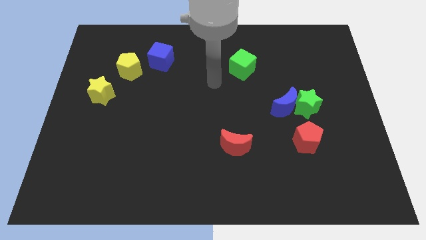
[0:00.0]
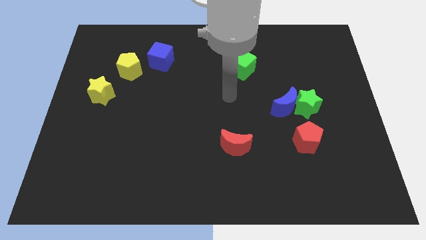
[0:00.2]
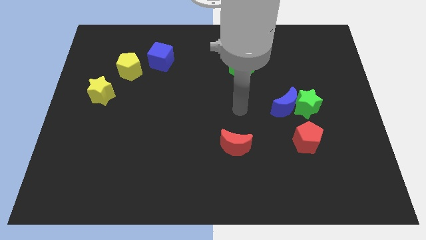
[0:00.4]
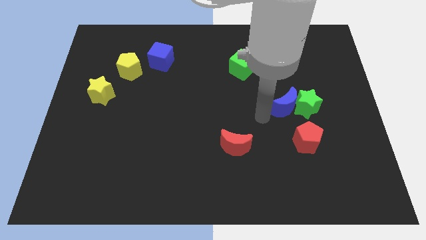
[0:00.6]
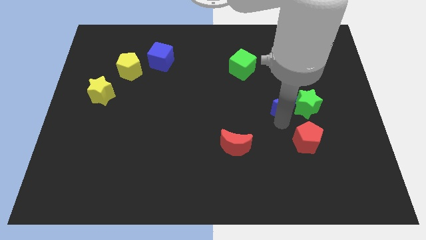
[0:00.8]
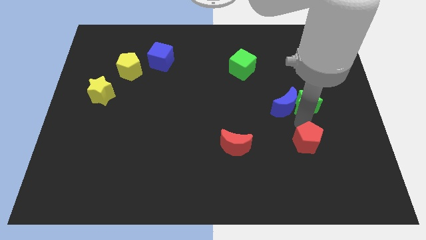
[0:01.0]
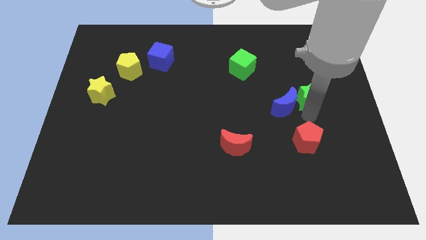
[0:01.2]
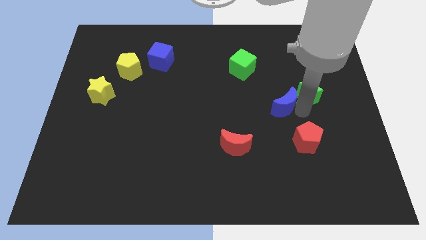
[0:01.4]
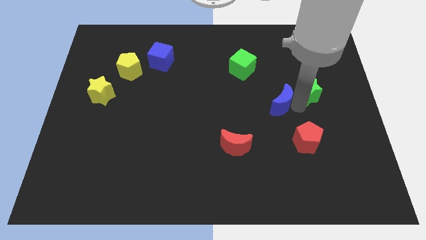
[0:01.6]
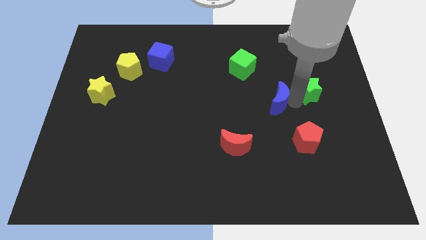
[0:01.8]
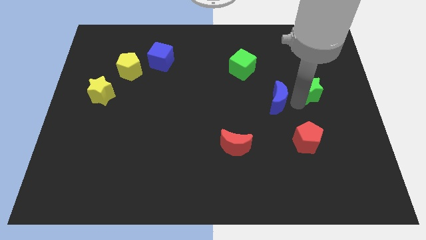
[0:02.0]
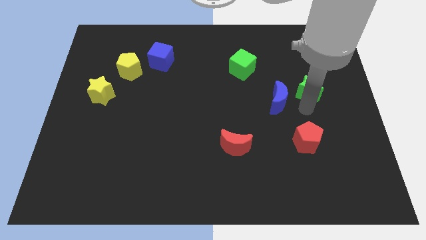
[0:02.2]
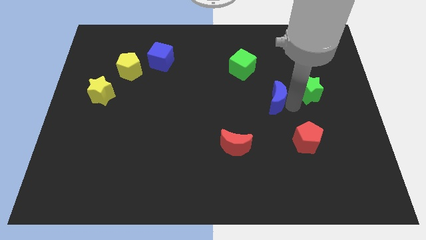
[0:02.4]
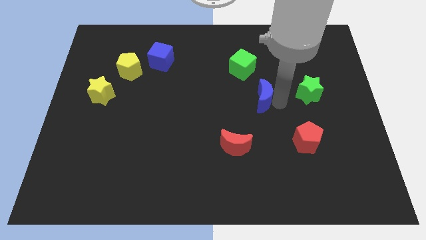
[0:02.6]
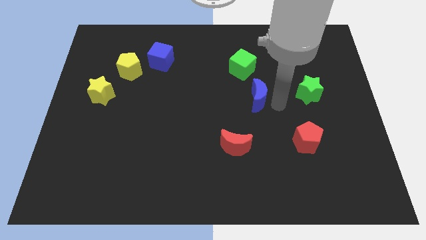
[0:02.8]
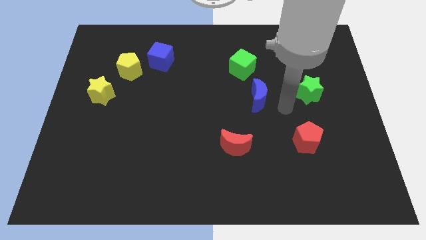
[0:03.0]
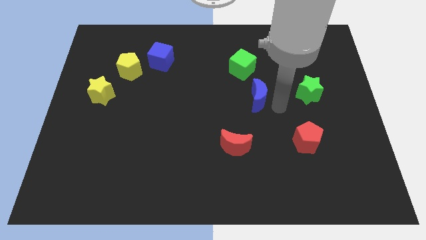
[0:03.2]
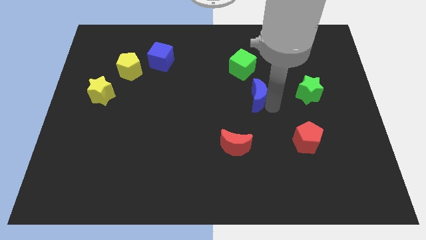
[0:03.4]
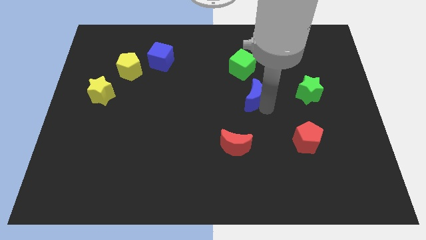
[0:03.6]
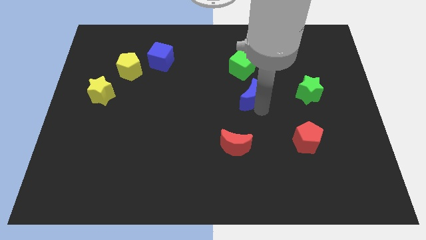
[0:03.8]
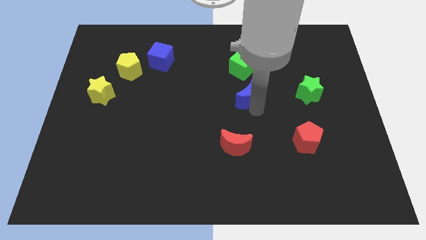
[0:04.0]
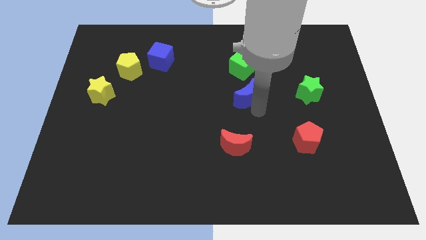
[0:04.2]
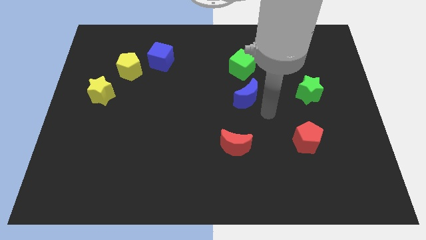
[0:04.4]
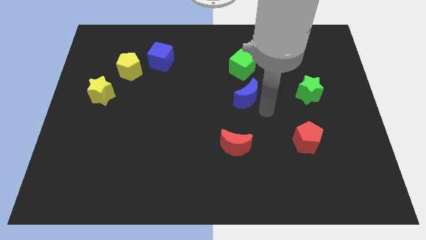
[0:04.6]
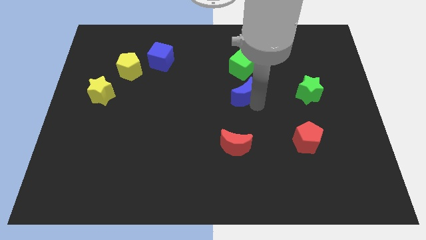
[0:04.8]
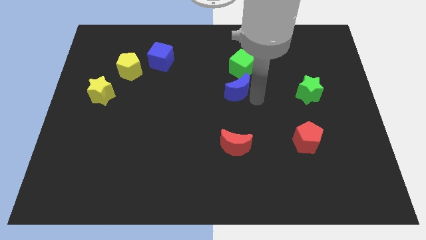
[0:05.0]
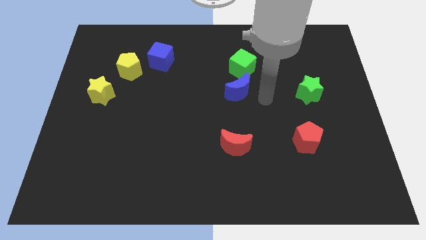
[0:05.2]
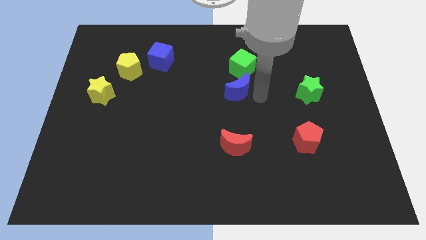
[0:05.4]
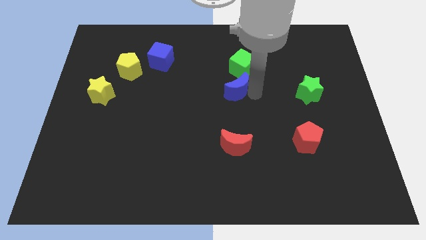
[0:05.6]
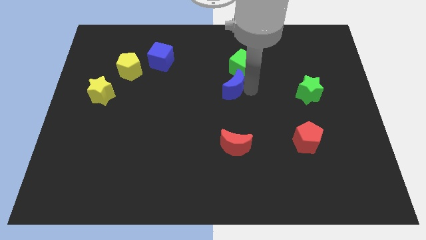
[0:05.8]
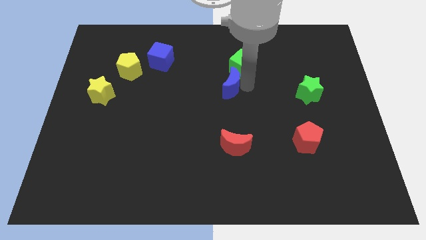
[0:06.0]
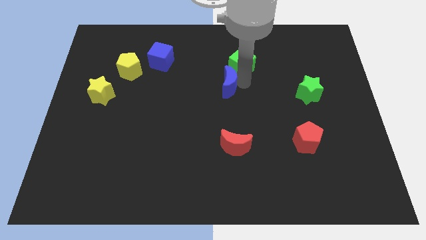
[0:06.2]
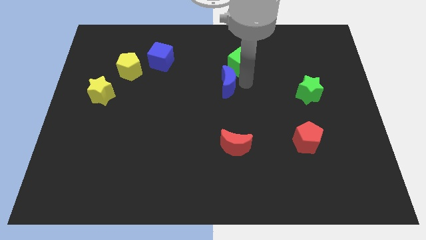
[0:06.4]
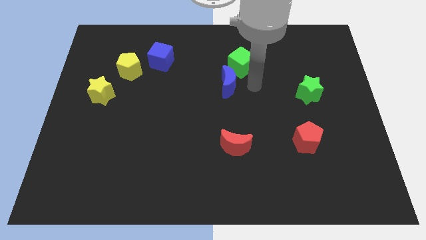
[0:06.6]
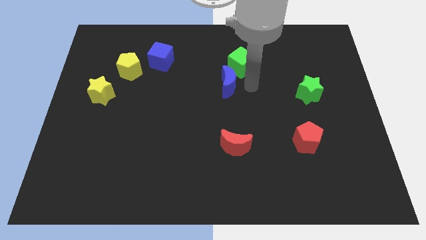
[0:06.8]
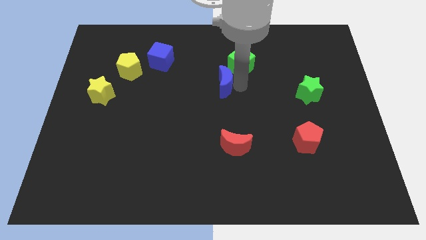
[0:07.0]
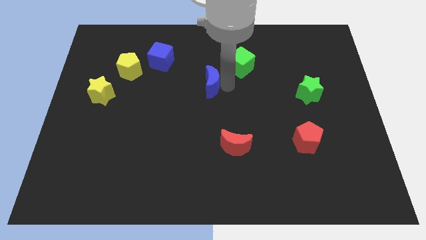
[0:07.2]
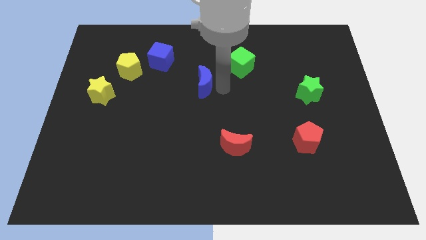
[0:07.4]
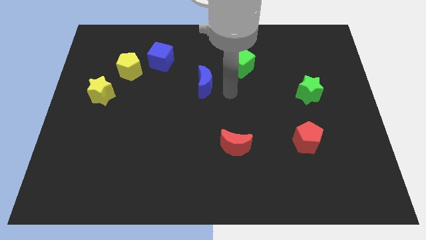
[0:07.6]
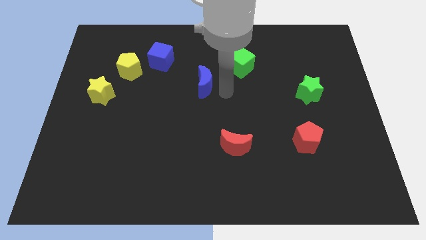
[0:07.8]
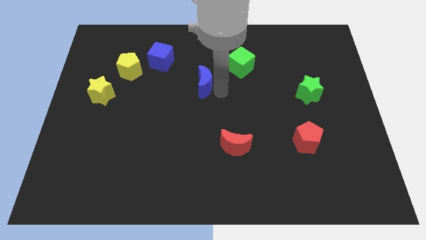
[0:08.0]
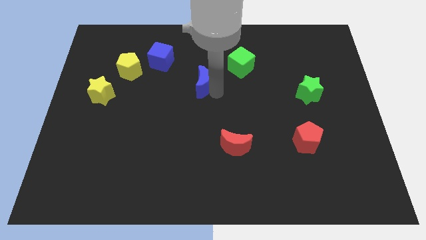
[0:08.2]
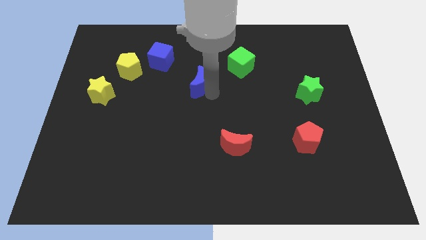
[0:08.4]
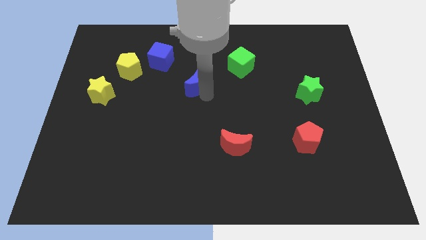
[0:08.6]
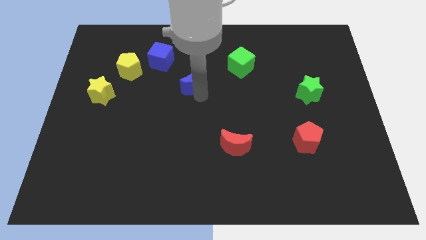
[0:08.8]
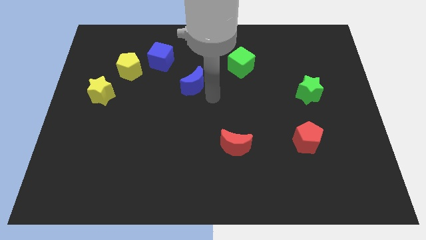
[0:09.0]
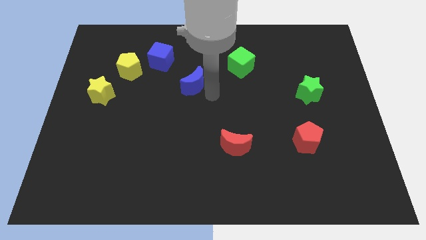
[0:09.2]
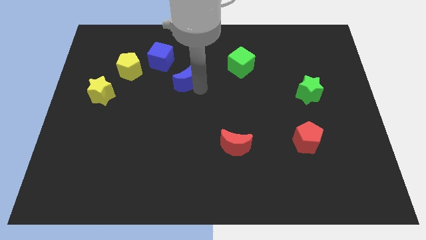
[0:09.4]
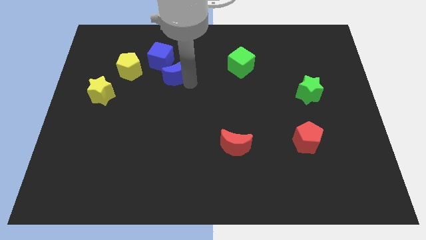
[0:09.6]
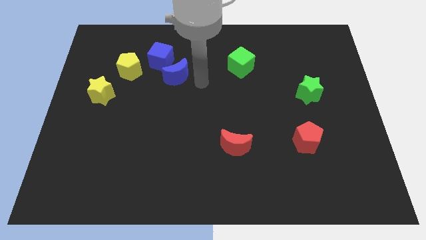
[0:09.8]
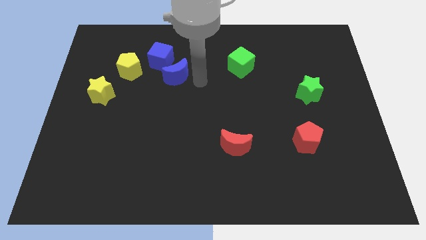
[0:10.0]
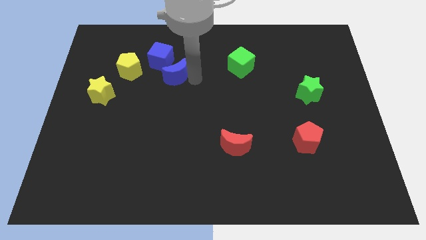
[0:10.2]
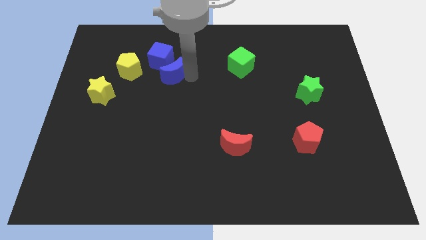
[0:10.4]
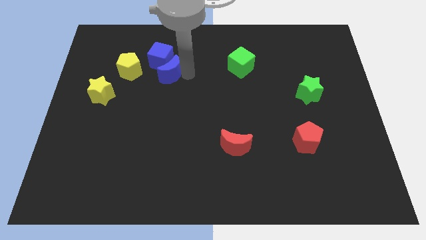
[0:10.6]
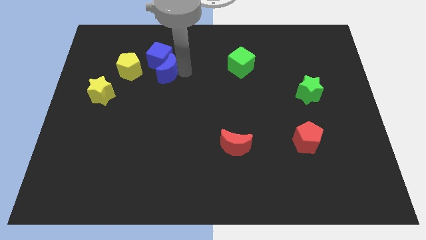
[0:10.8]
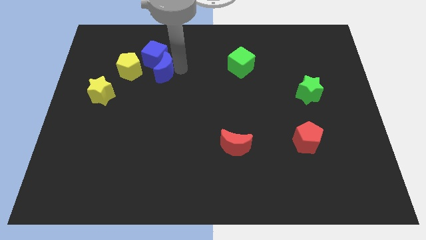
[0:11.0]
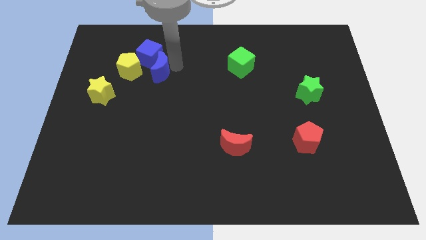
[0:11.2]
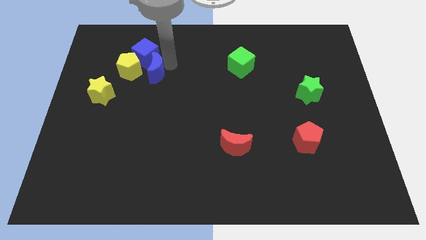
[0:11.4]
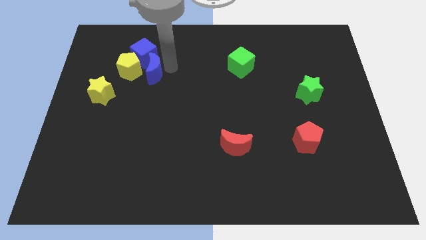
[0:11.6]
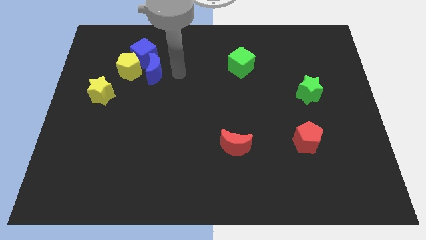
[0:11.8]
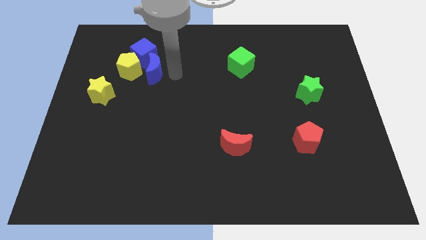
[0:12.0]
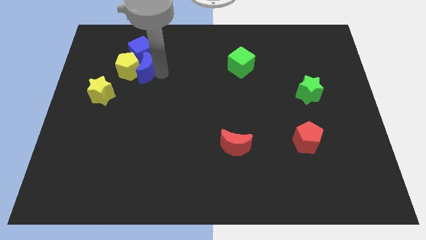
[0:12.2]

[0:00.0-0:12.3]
put the blue moon next to the yellow pentagon

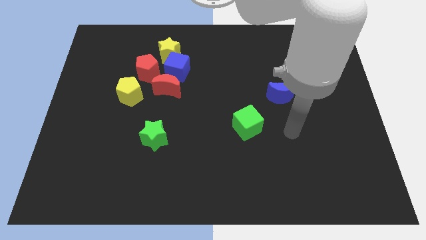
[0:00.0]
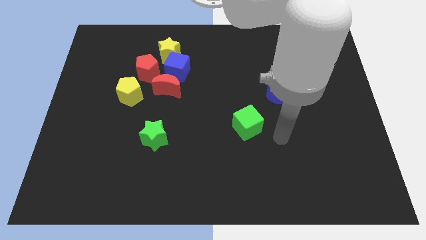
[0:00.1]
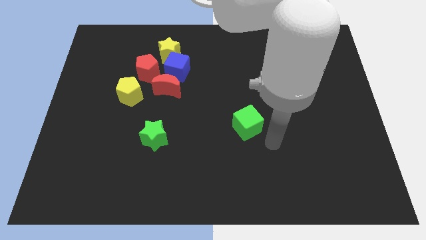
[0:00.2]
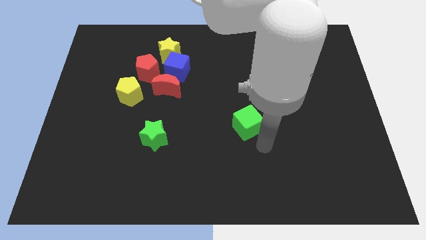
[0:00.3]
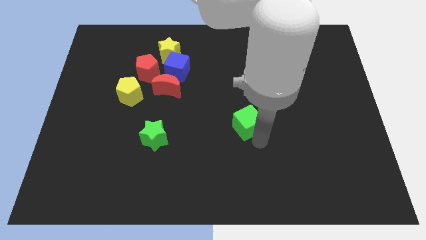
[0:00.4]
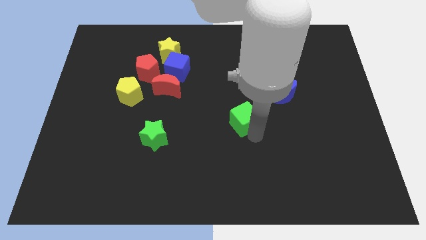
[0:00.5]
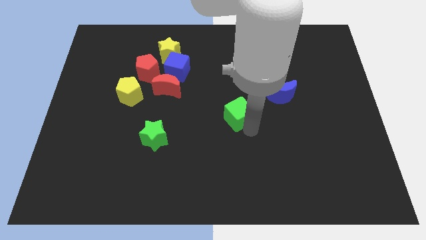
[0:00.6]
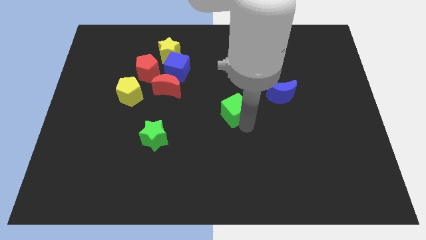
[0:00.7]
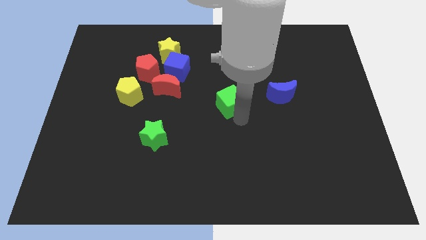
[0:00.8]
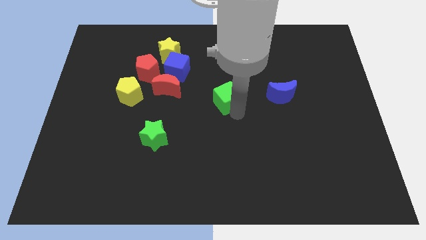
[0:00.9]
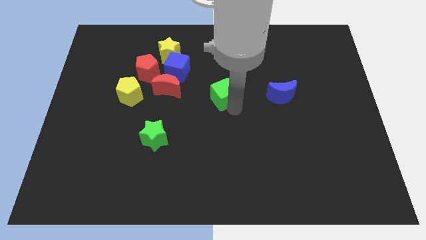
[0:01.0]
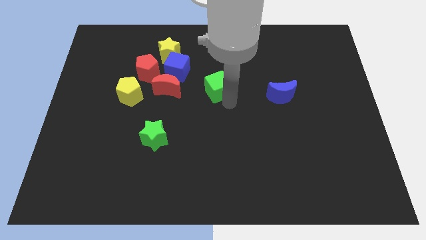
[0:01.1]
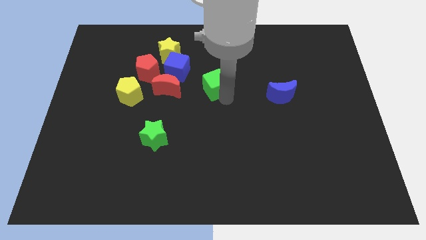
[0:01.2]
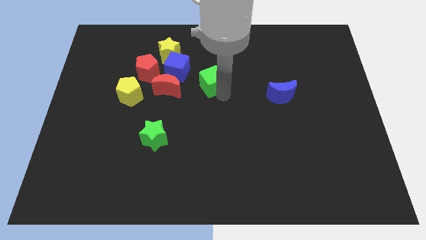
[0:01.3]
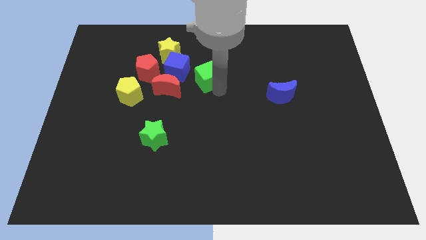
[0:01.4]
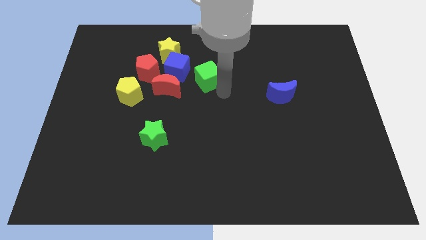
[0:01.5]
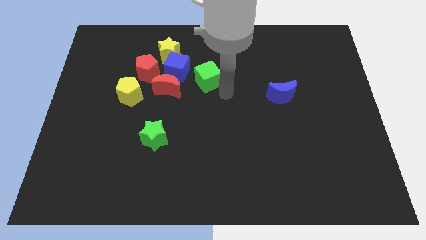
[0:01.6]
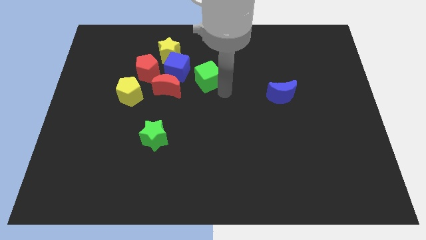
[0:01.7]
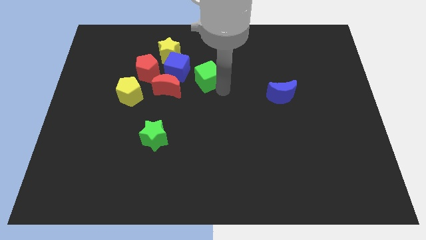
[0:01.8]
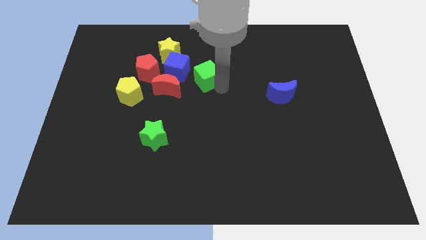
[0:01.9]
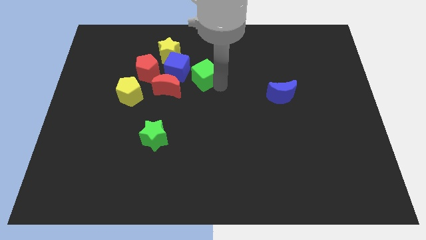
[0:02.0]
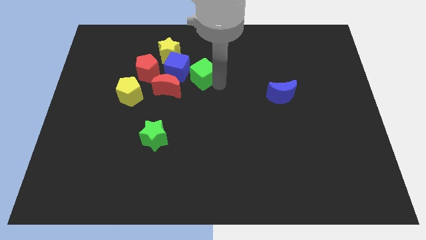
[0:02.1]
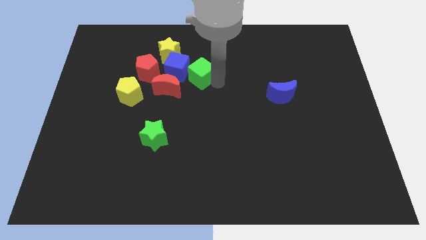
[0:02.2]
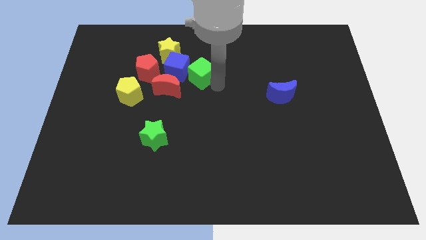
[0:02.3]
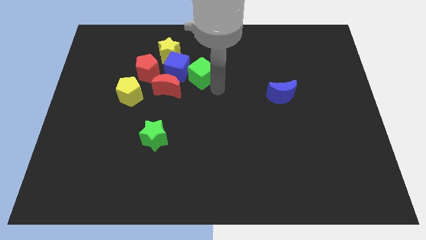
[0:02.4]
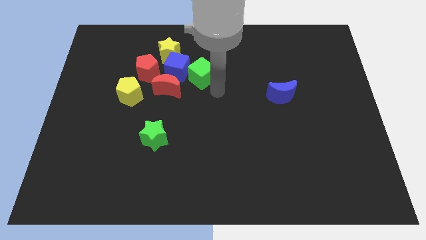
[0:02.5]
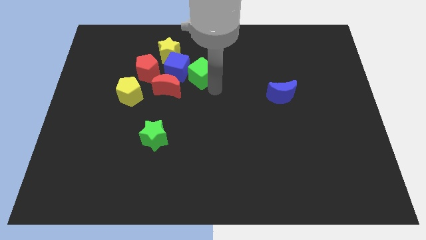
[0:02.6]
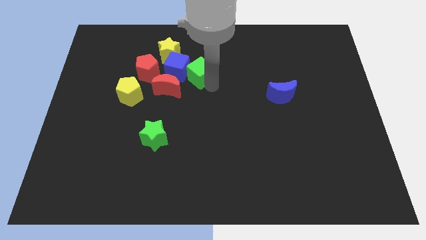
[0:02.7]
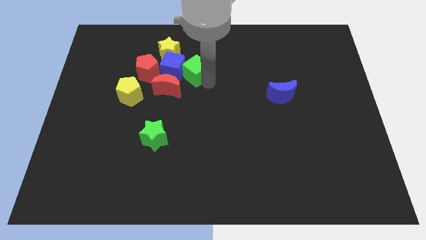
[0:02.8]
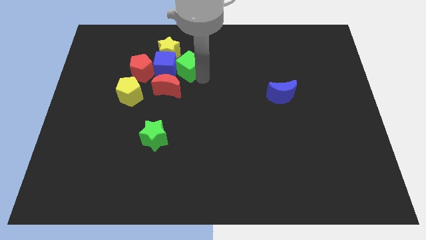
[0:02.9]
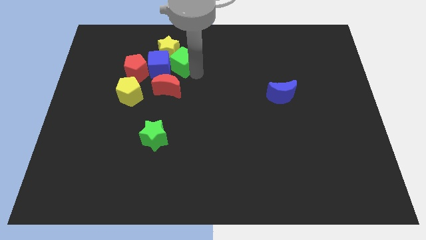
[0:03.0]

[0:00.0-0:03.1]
put the green cube close to the yellow star
